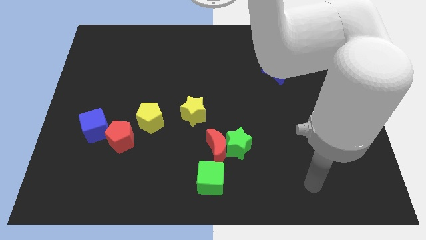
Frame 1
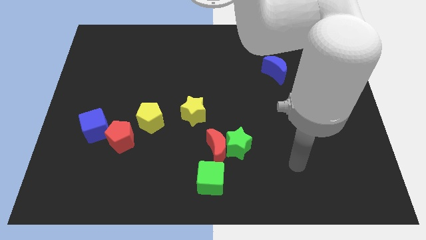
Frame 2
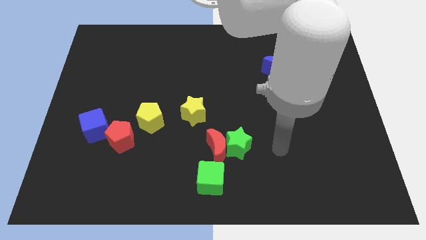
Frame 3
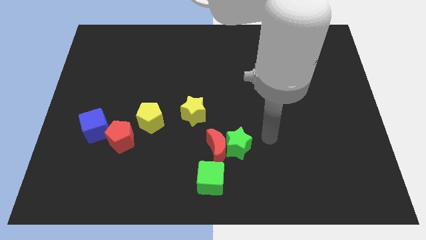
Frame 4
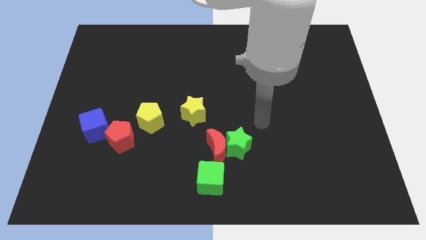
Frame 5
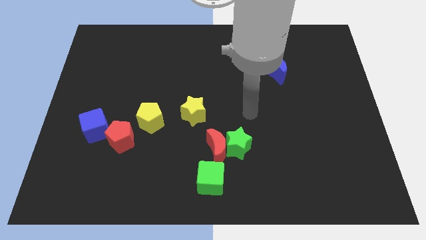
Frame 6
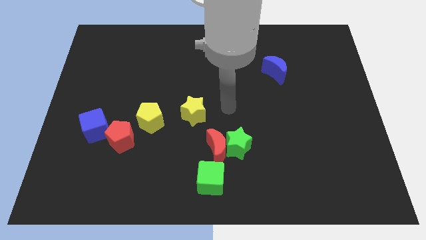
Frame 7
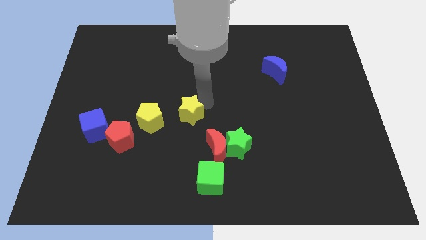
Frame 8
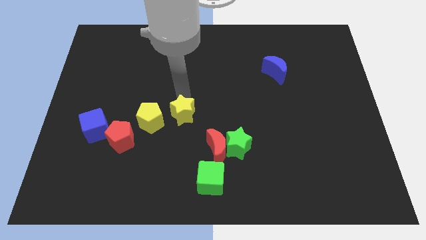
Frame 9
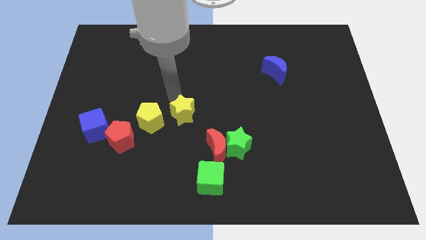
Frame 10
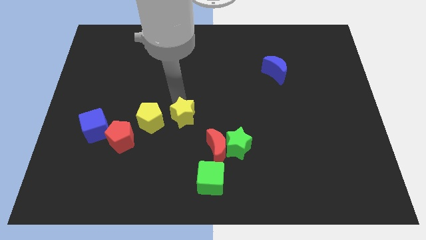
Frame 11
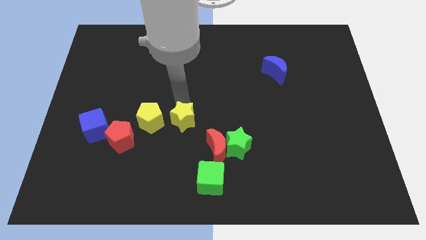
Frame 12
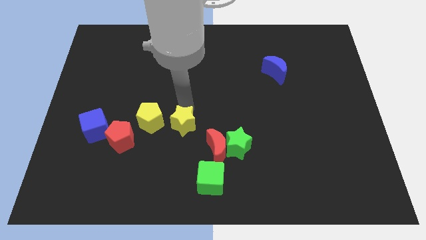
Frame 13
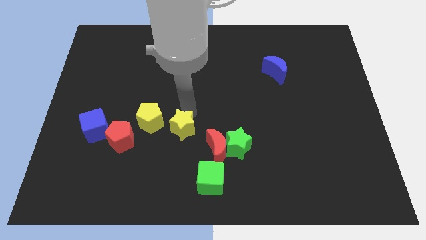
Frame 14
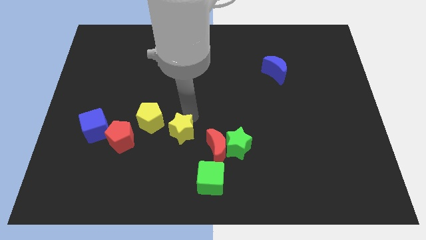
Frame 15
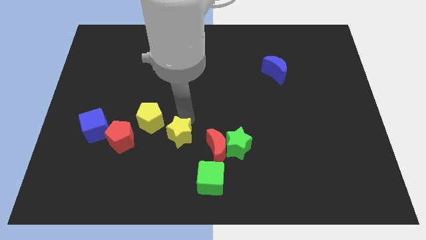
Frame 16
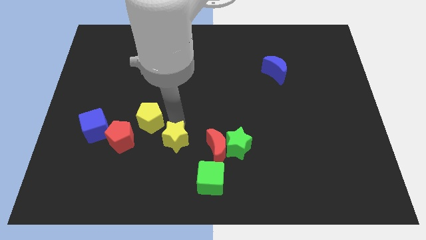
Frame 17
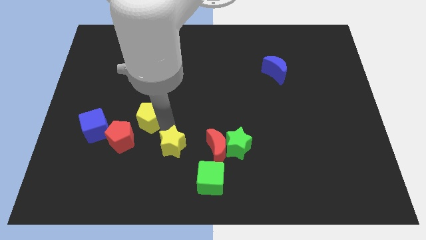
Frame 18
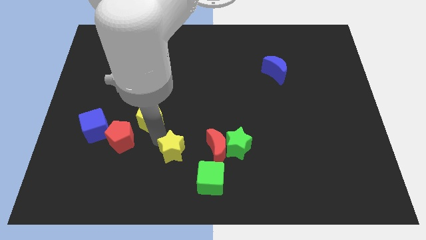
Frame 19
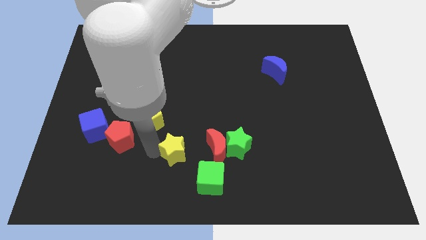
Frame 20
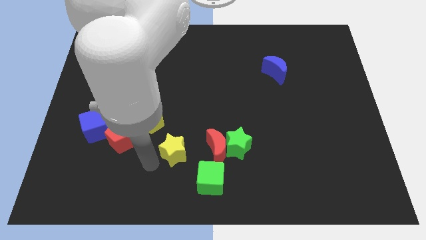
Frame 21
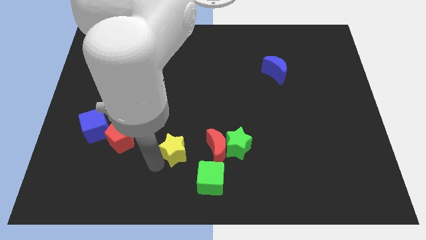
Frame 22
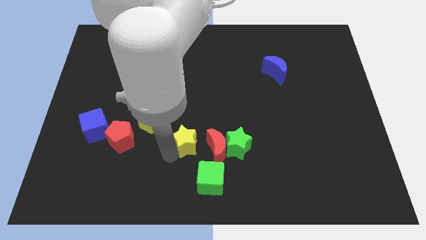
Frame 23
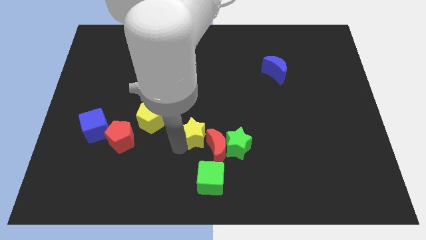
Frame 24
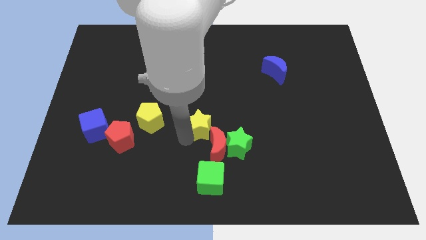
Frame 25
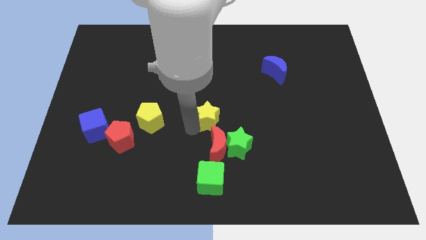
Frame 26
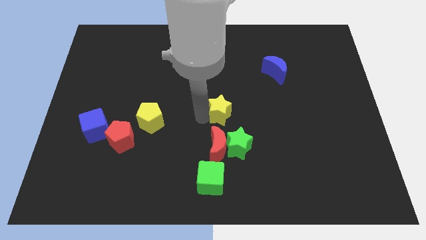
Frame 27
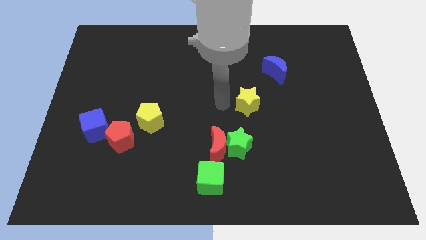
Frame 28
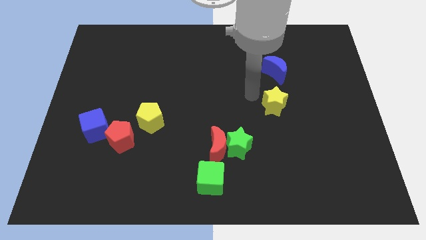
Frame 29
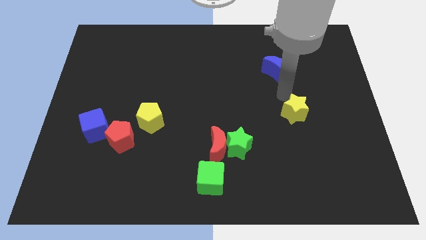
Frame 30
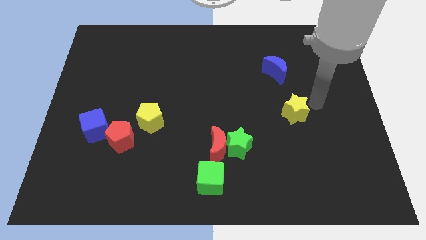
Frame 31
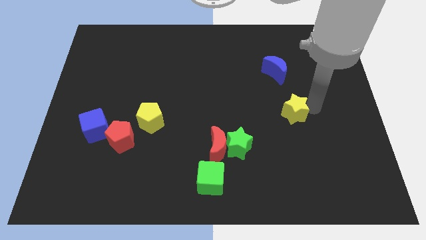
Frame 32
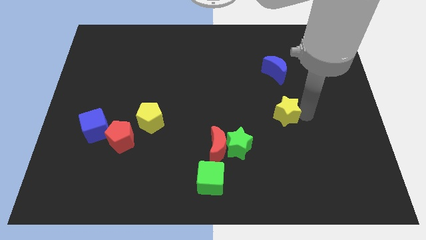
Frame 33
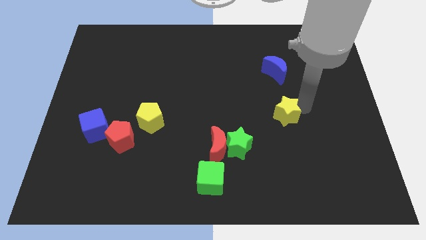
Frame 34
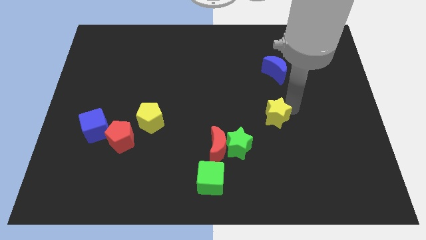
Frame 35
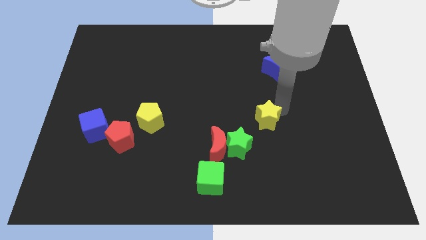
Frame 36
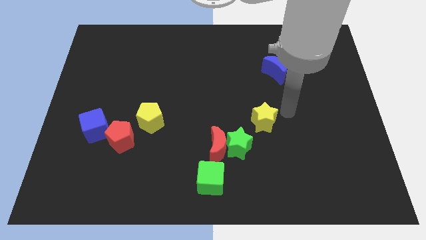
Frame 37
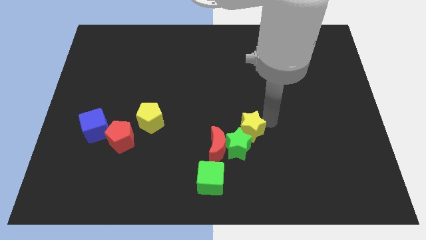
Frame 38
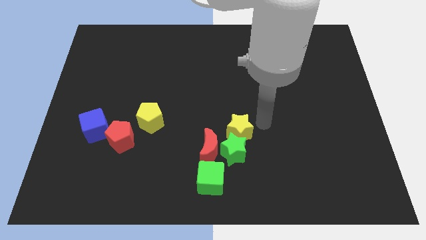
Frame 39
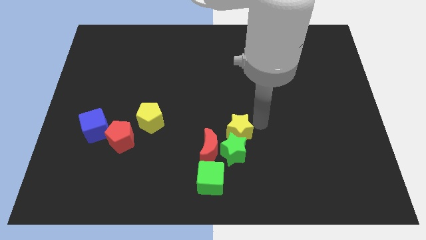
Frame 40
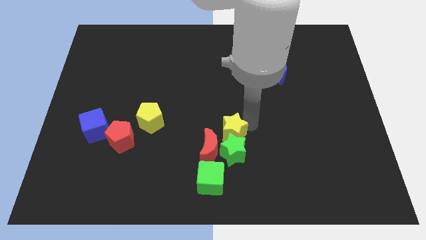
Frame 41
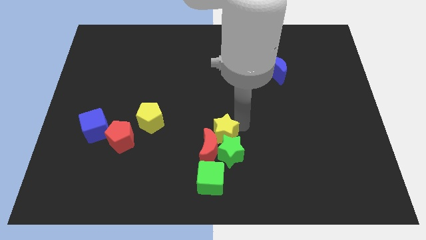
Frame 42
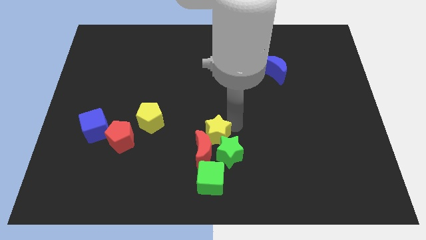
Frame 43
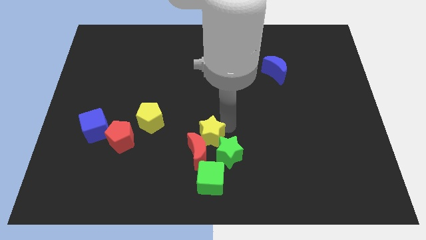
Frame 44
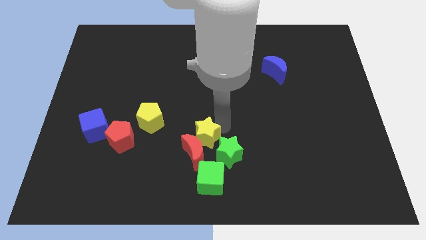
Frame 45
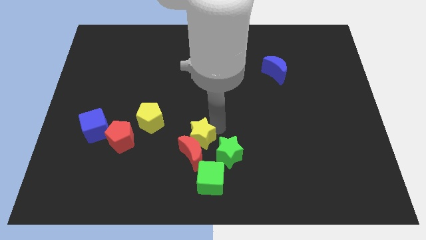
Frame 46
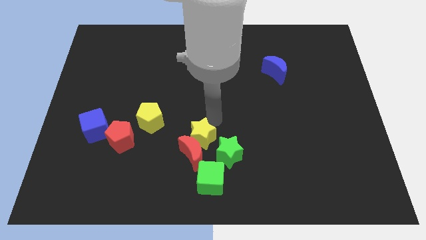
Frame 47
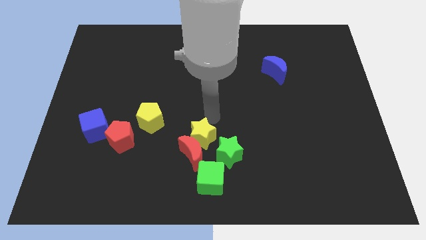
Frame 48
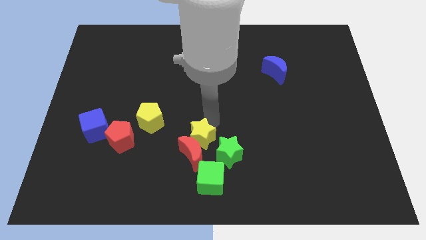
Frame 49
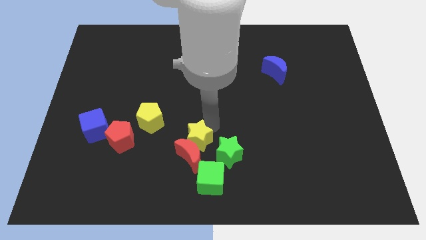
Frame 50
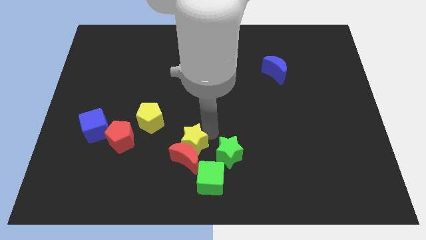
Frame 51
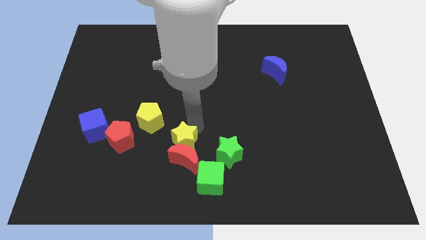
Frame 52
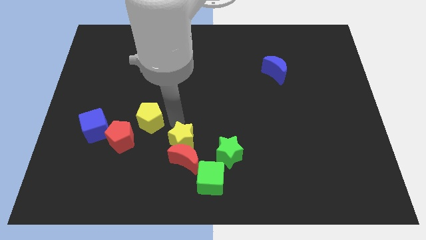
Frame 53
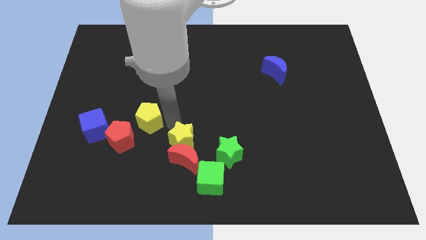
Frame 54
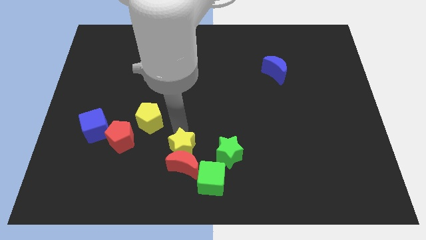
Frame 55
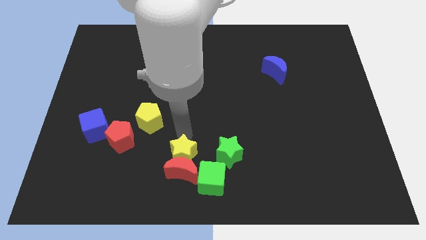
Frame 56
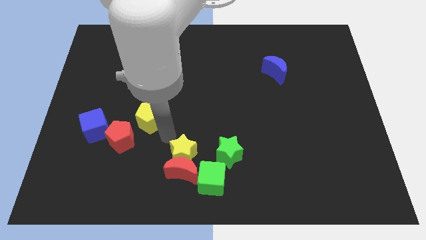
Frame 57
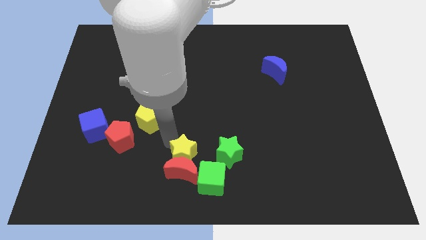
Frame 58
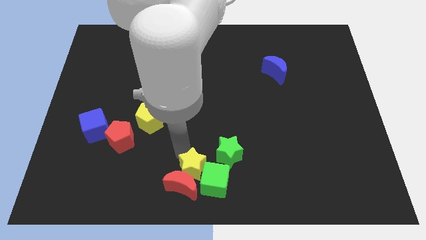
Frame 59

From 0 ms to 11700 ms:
put the yellow star towards the green cube

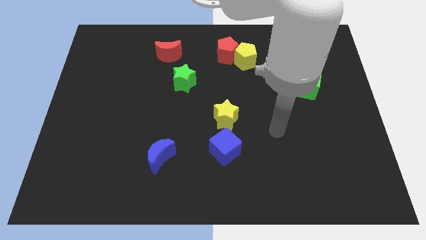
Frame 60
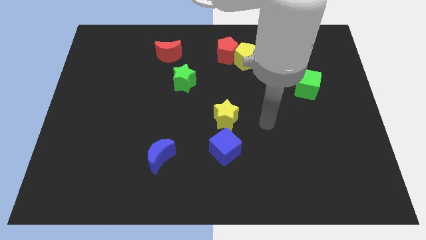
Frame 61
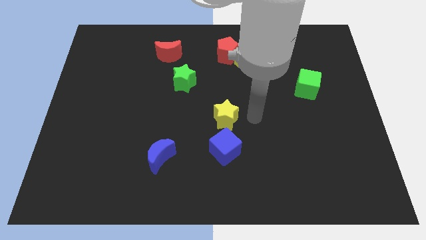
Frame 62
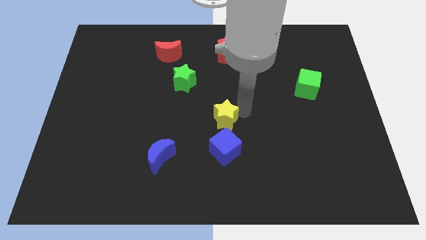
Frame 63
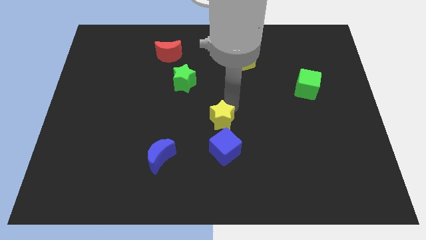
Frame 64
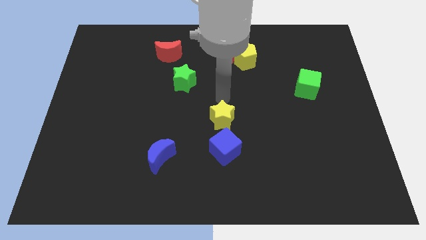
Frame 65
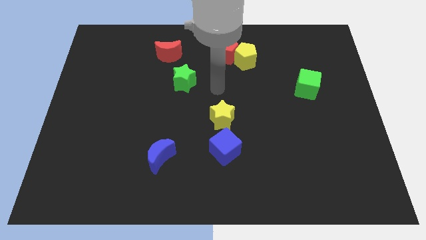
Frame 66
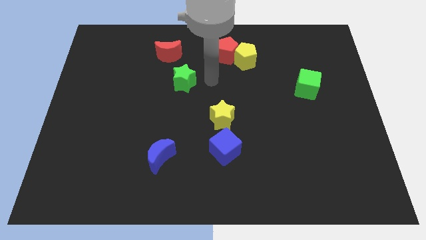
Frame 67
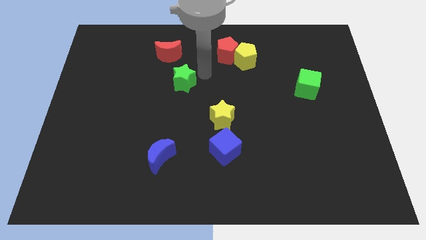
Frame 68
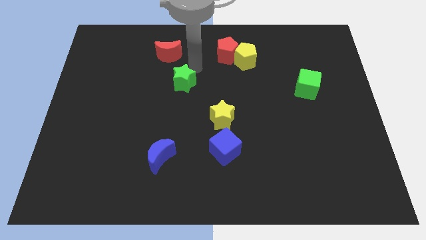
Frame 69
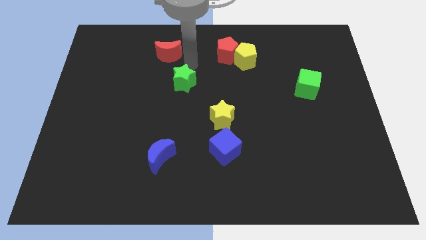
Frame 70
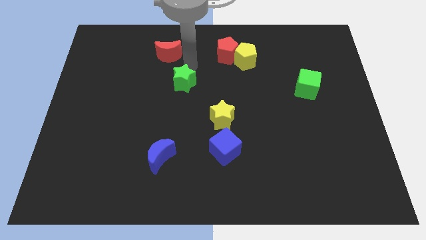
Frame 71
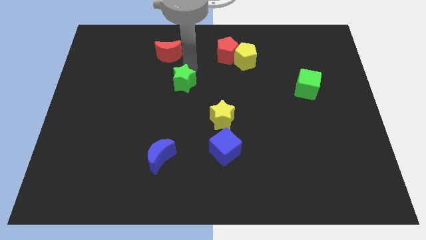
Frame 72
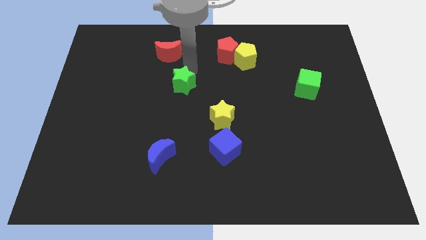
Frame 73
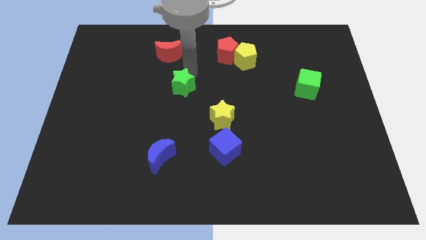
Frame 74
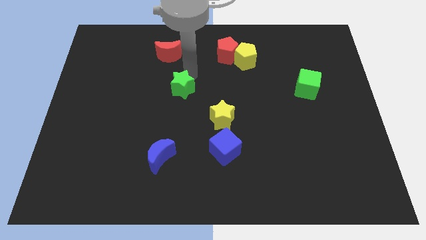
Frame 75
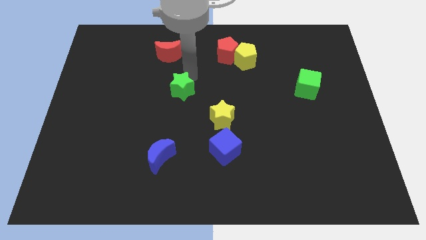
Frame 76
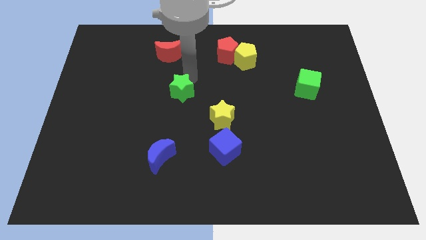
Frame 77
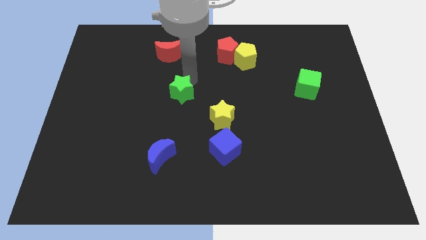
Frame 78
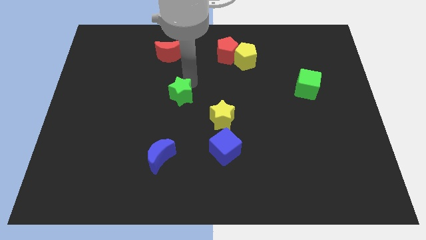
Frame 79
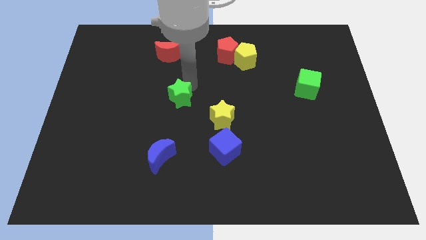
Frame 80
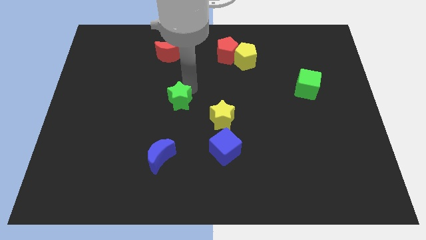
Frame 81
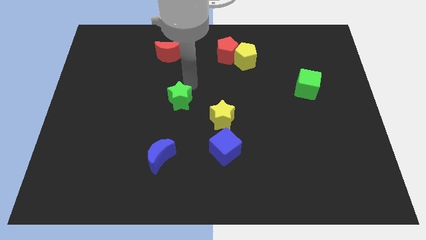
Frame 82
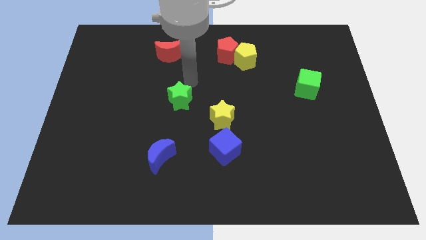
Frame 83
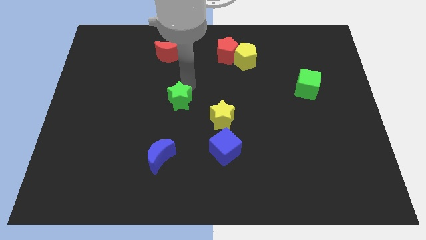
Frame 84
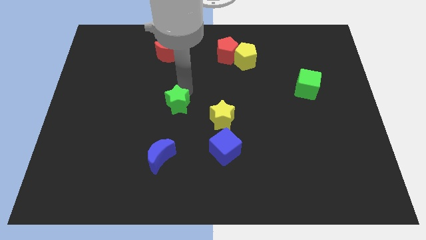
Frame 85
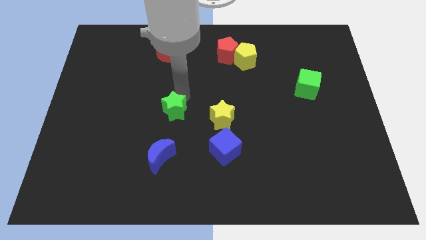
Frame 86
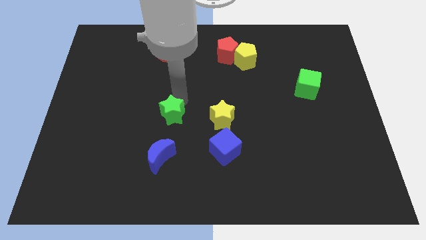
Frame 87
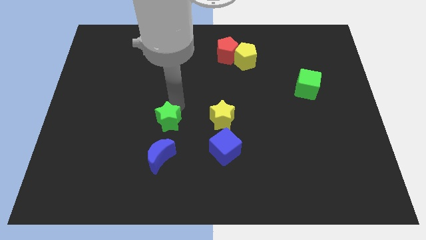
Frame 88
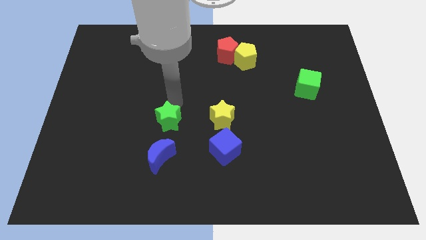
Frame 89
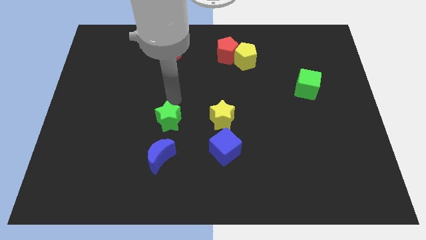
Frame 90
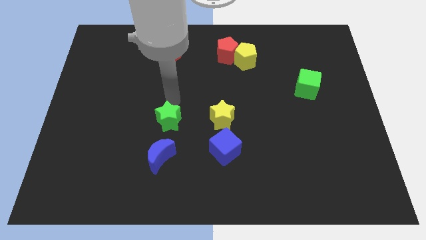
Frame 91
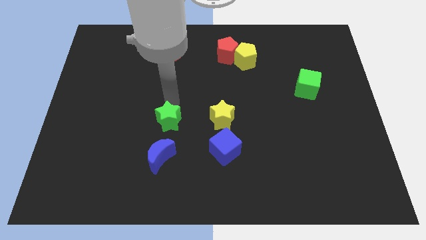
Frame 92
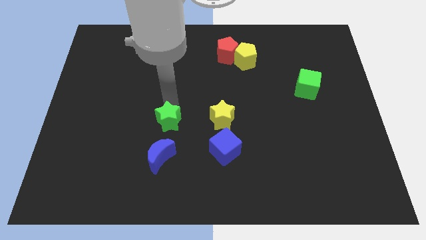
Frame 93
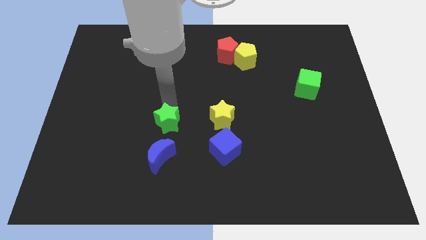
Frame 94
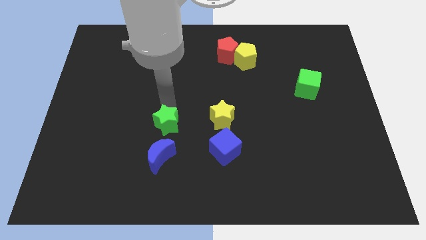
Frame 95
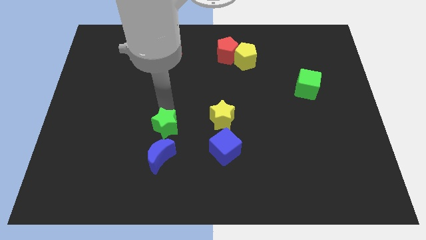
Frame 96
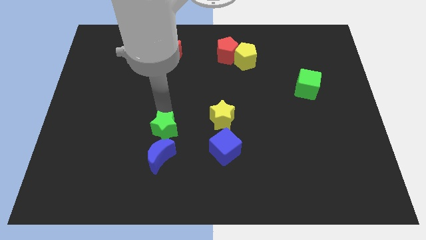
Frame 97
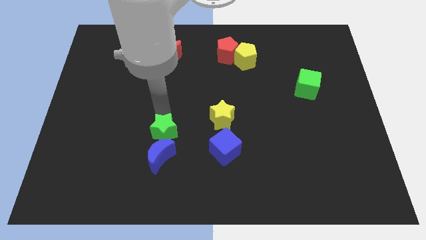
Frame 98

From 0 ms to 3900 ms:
push the green star close to the blue moon
